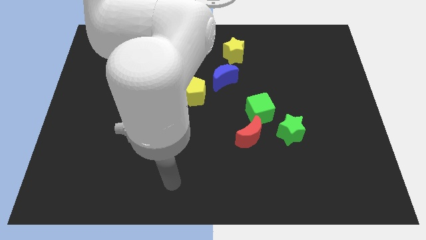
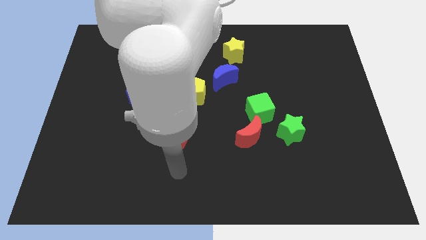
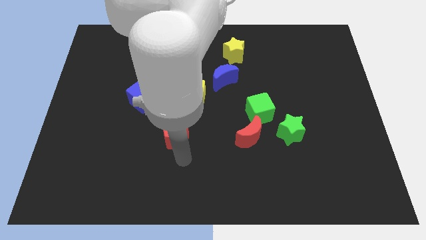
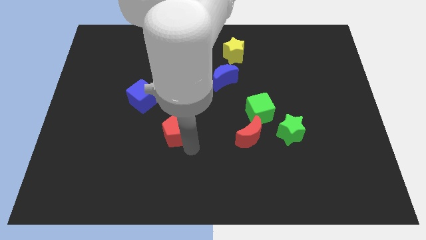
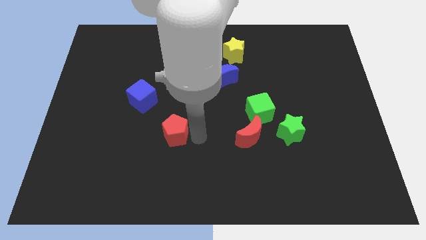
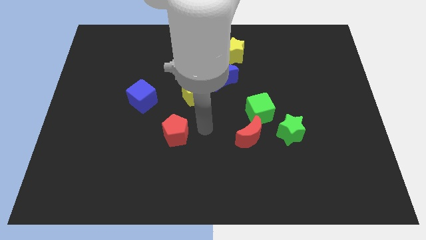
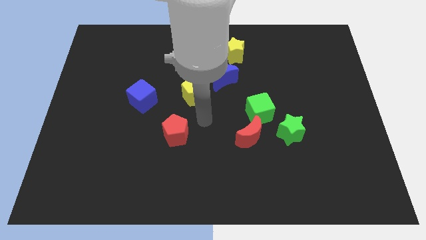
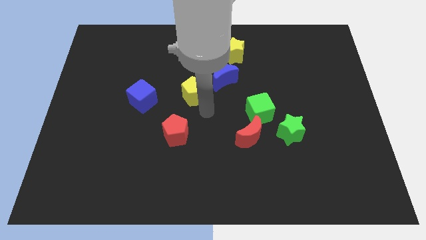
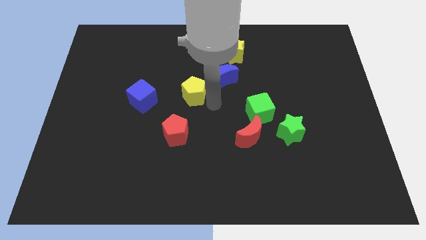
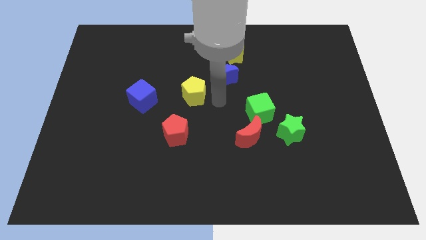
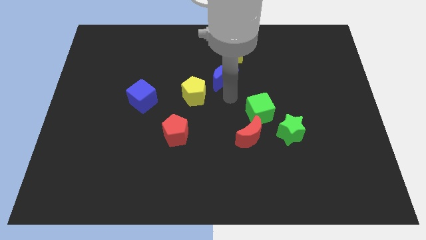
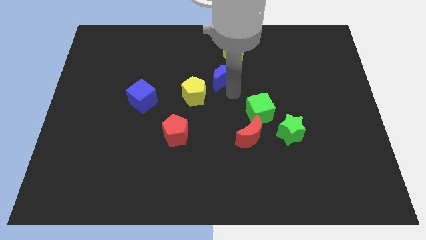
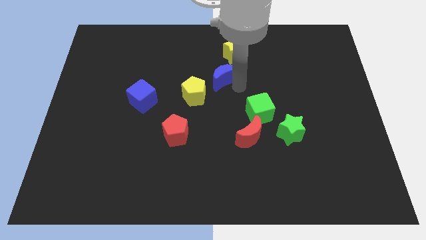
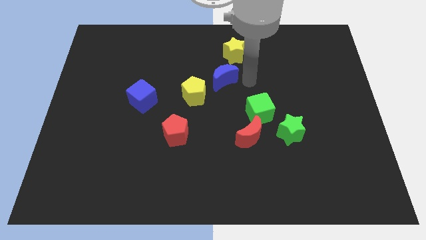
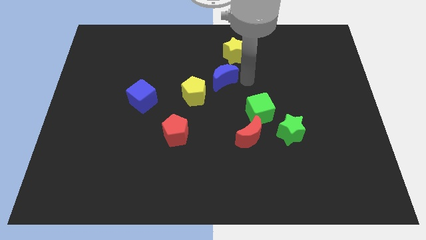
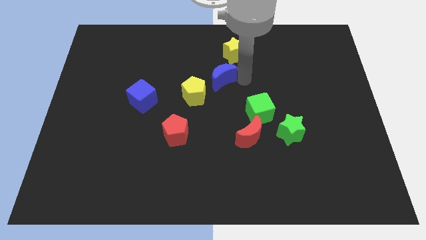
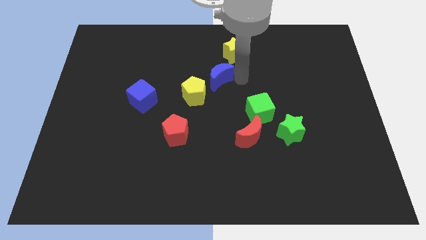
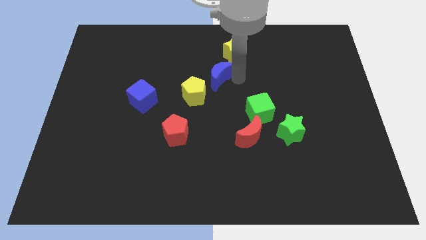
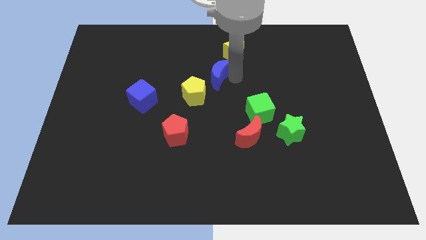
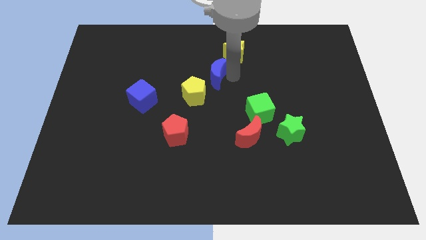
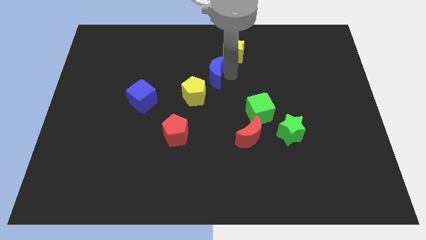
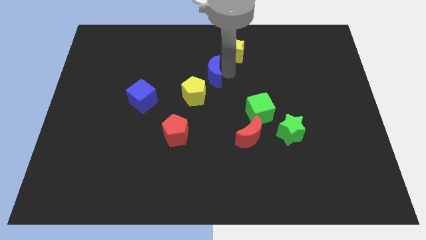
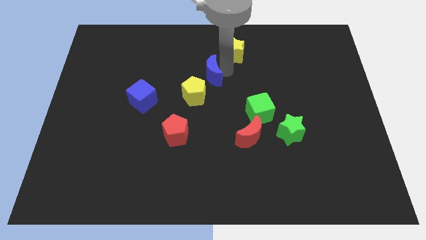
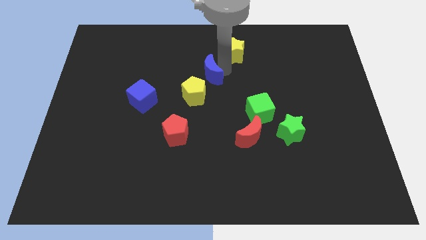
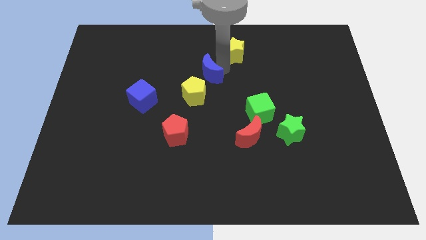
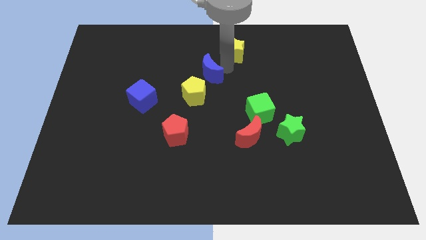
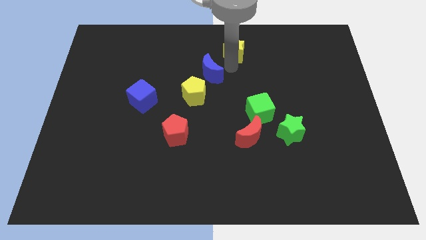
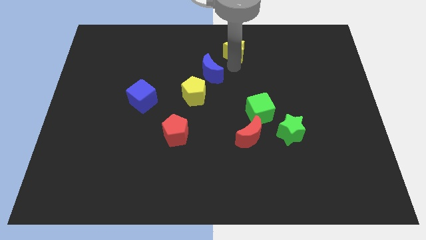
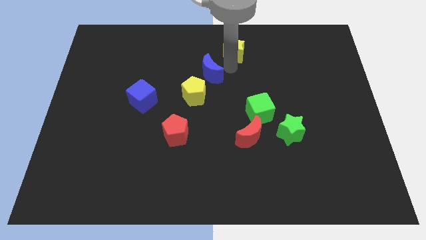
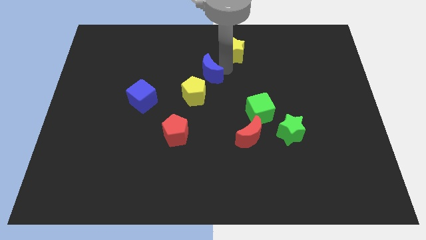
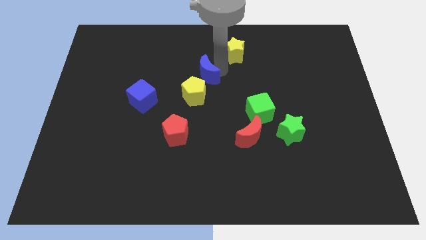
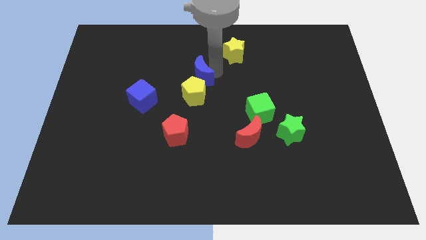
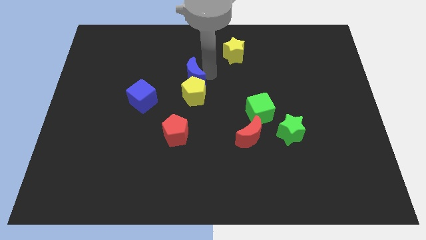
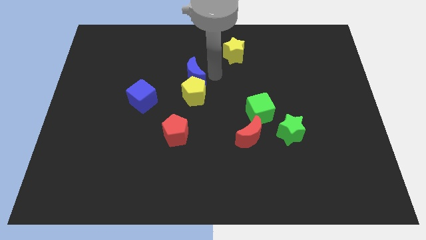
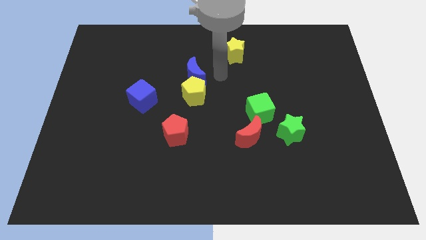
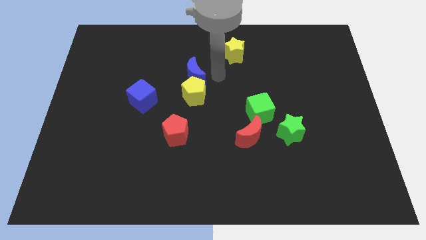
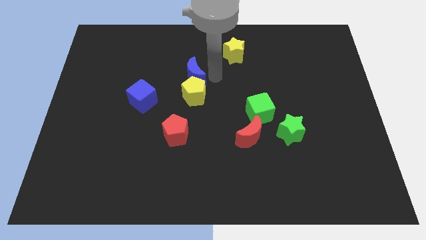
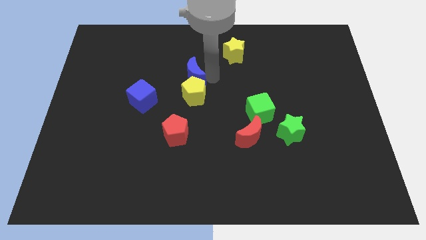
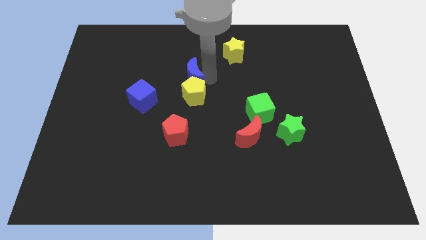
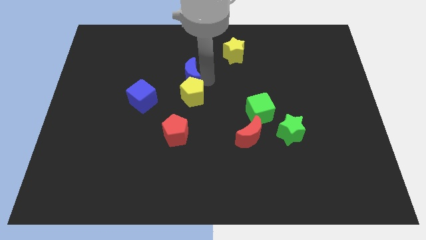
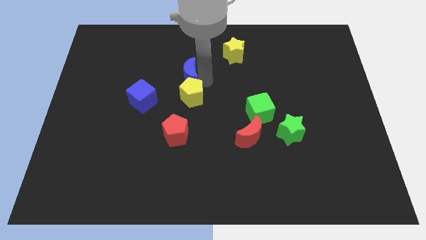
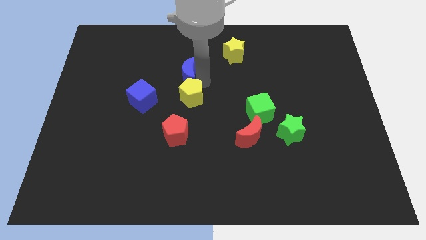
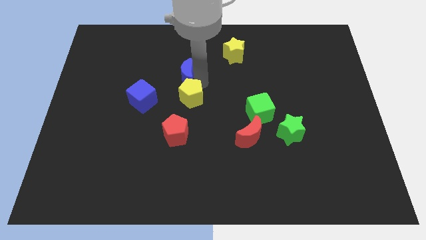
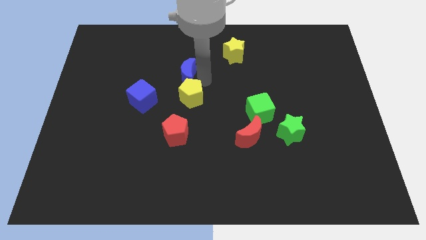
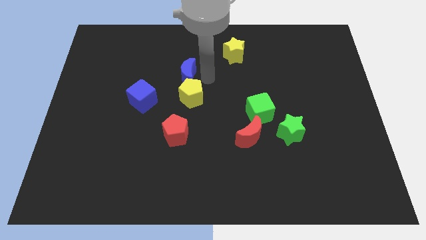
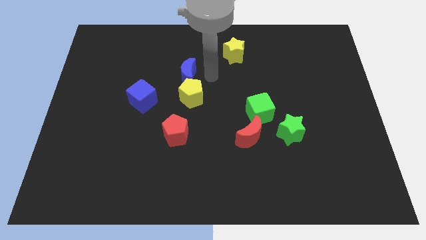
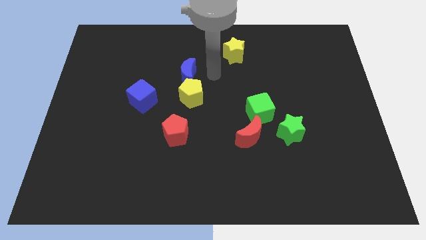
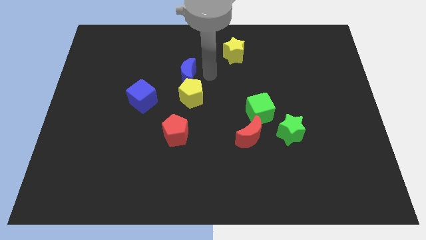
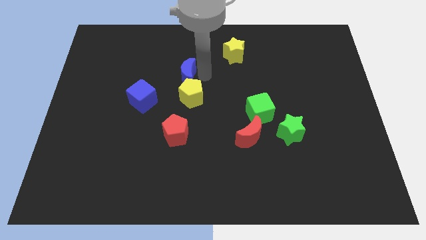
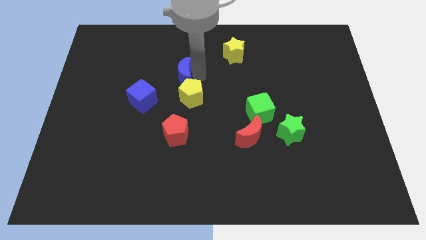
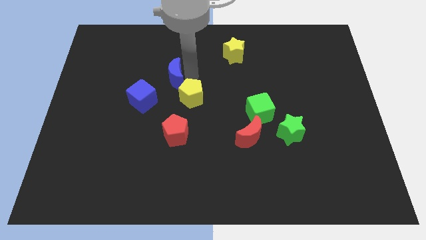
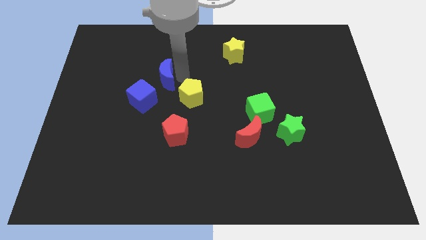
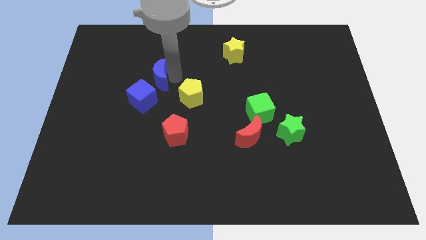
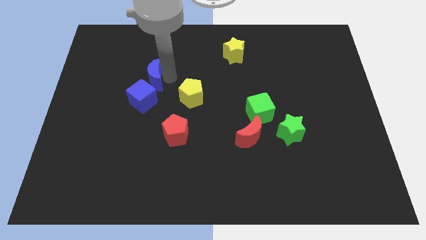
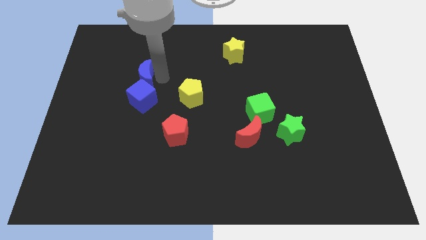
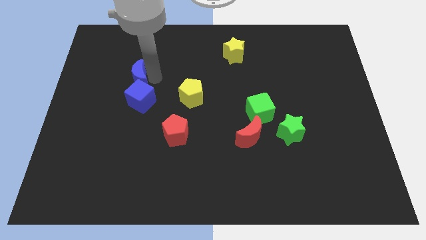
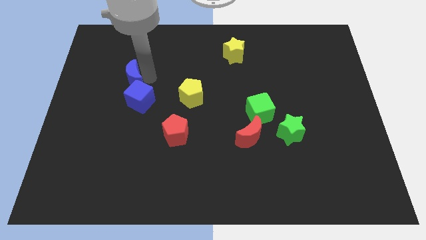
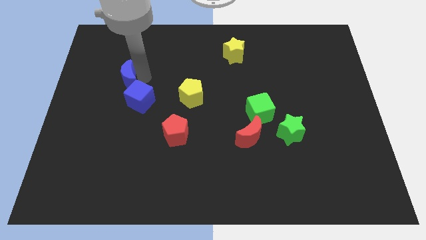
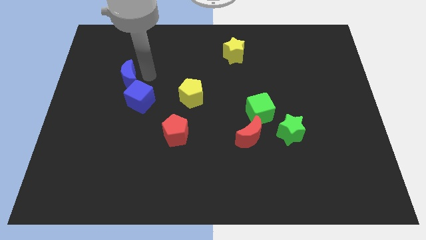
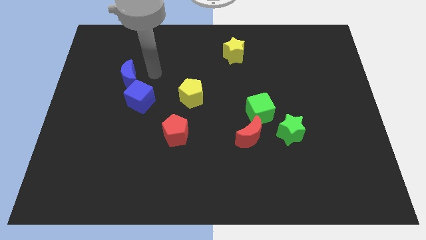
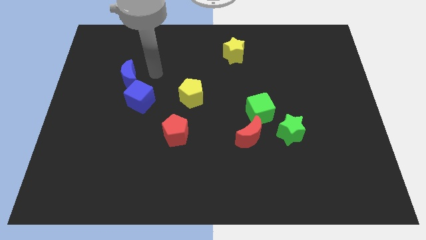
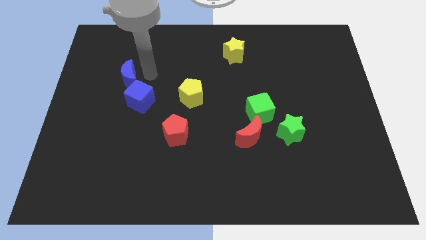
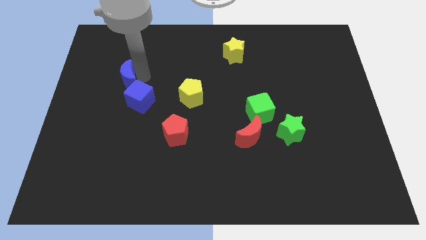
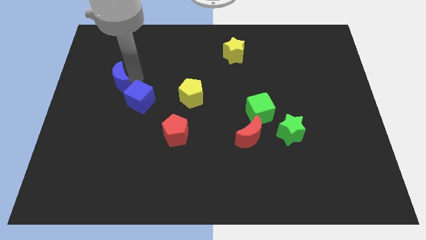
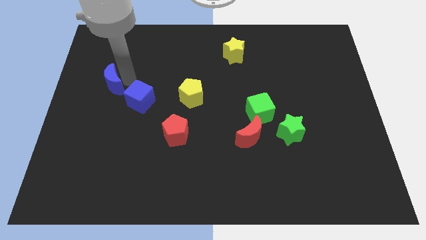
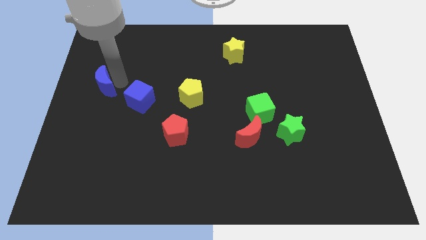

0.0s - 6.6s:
slide the blue moon to the center left
